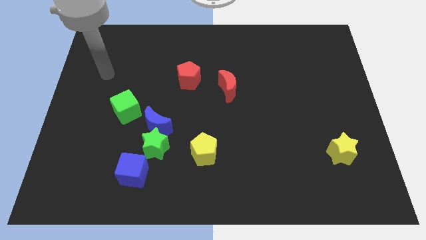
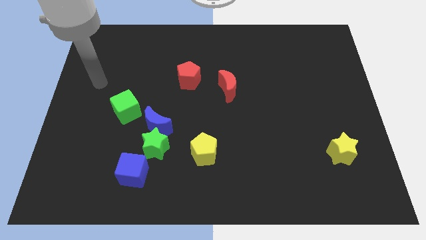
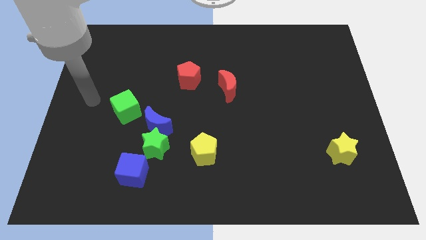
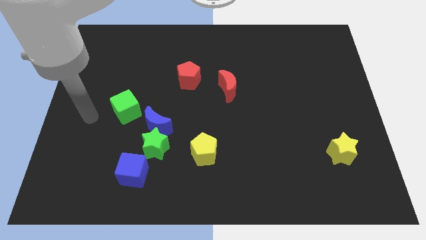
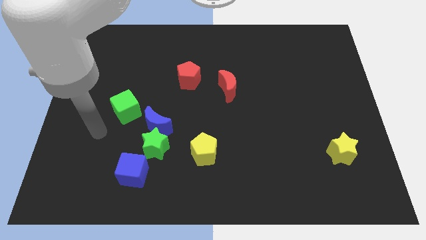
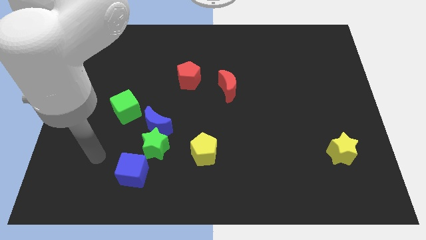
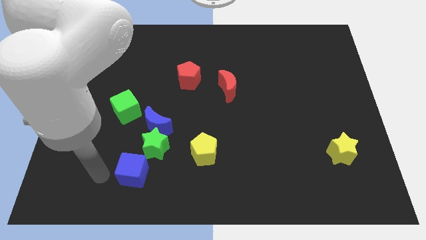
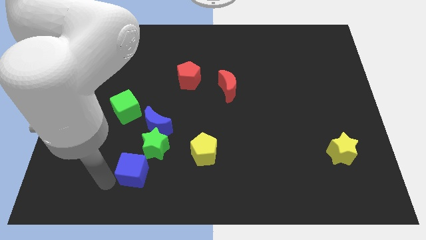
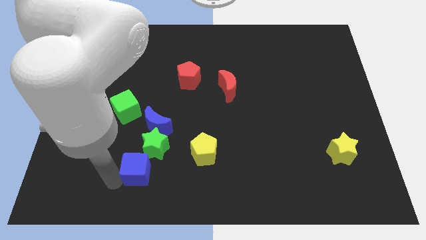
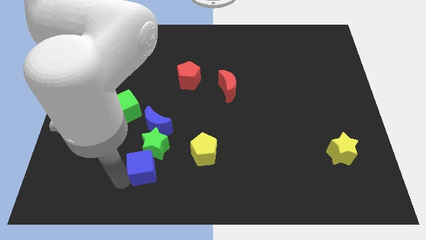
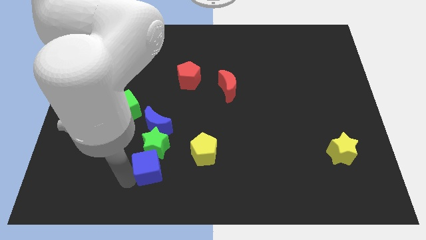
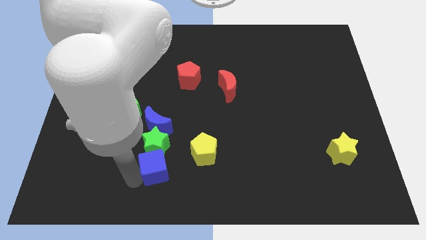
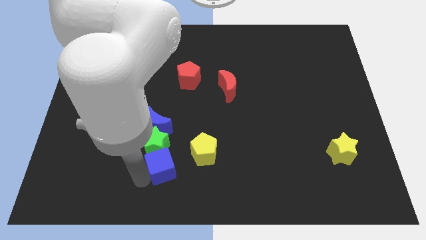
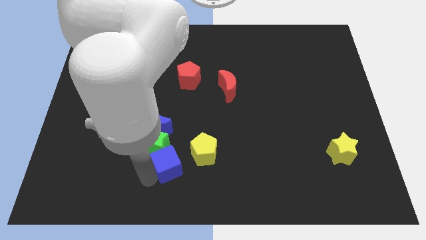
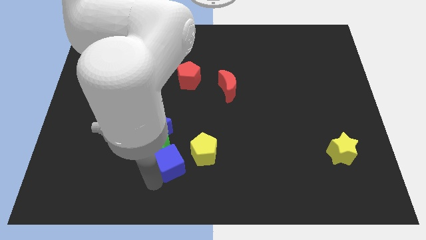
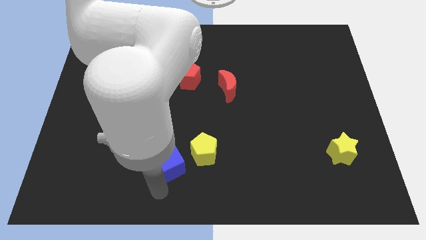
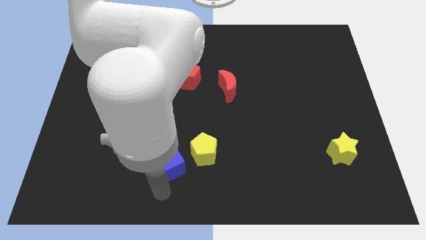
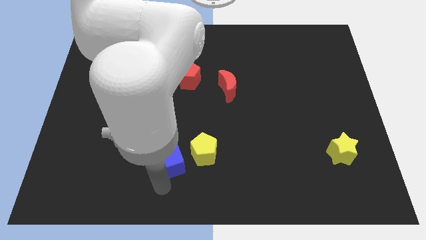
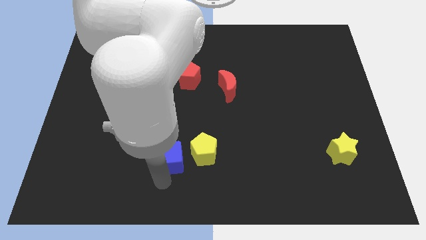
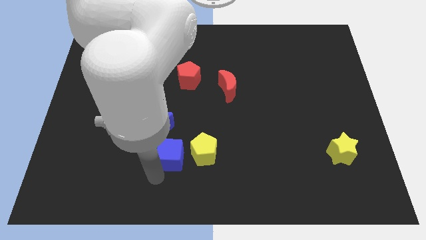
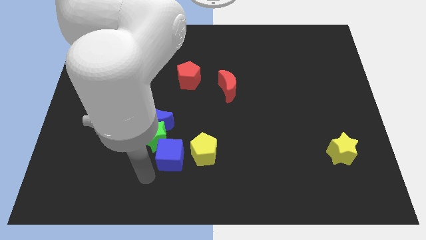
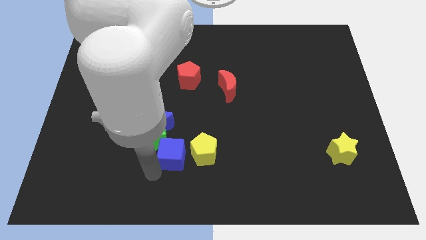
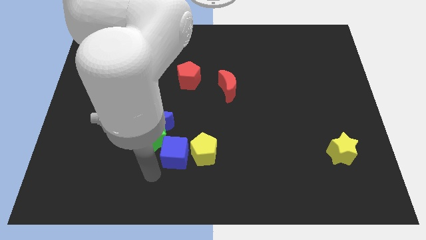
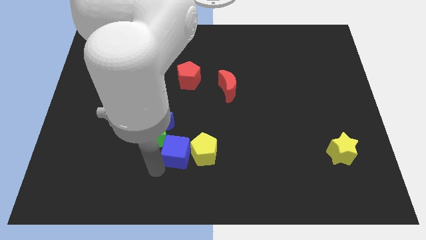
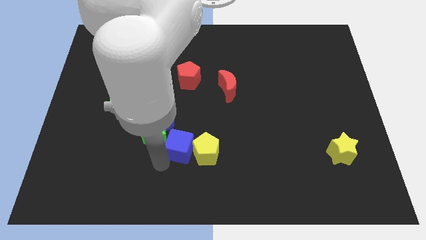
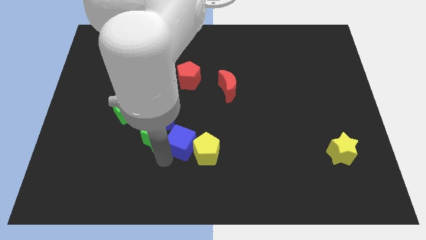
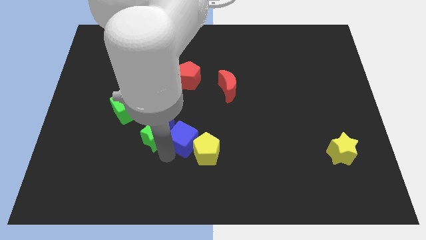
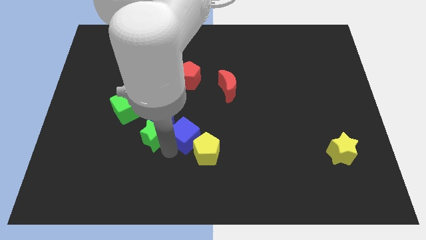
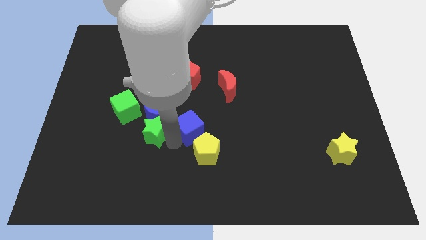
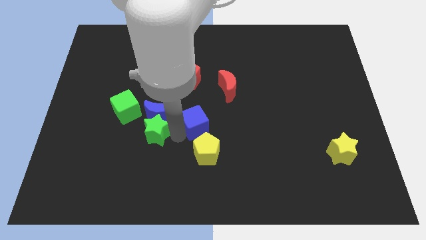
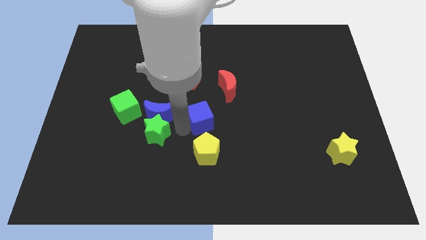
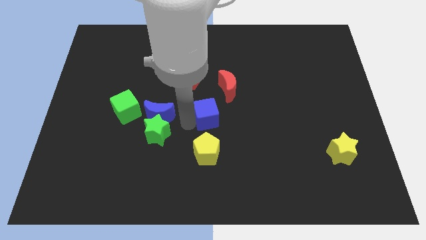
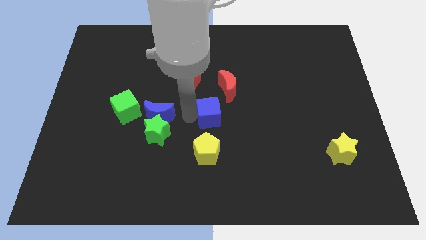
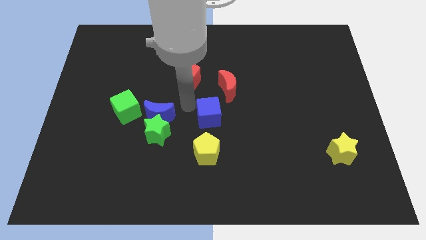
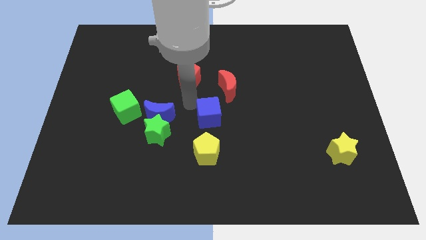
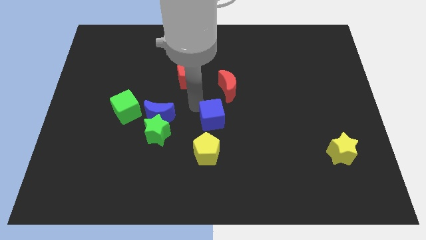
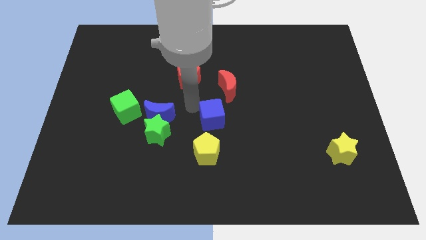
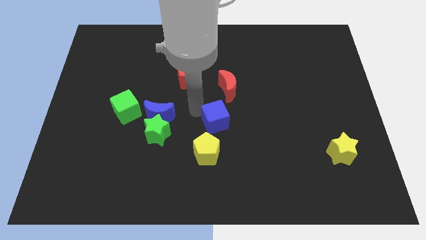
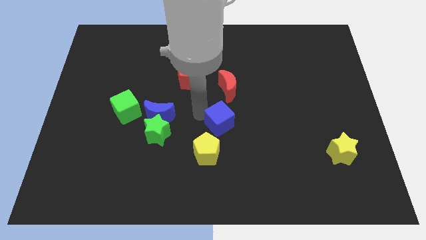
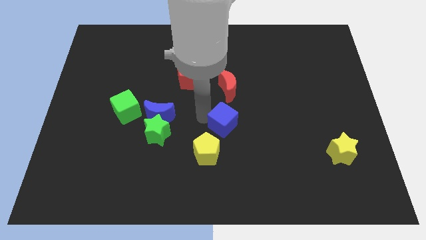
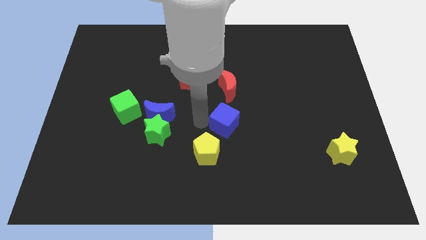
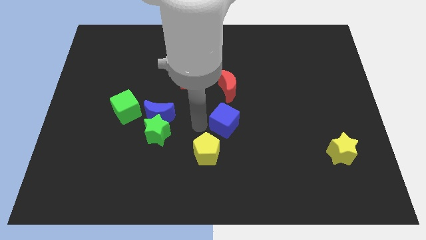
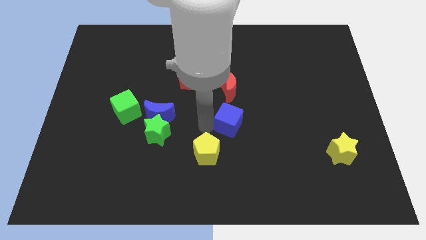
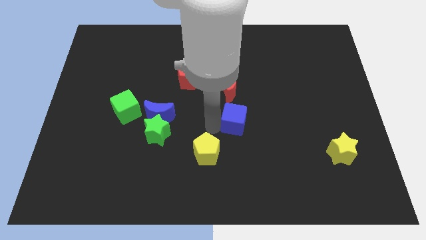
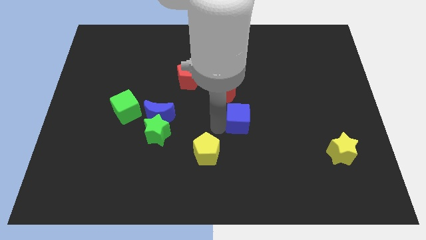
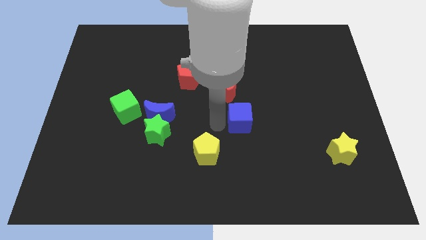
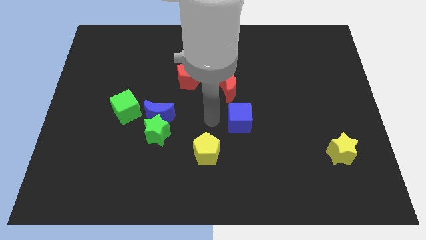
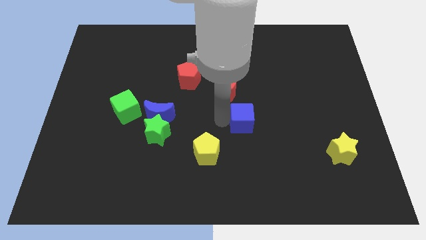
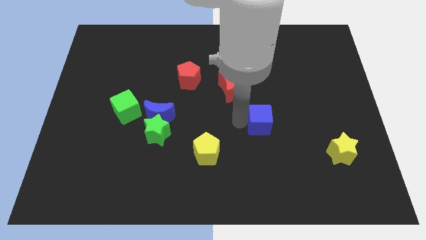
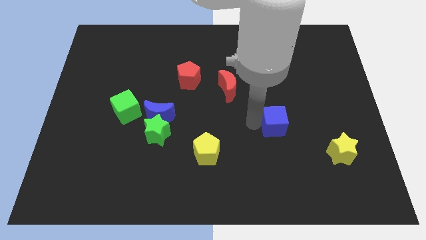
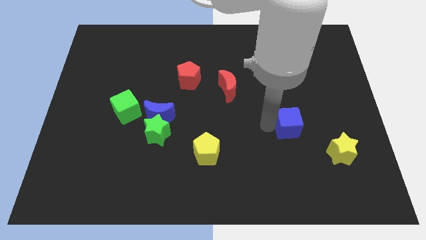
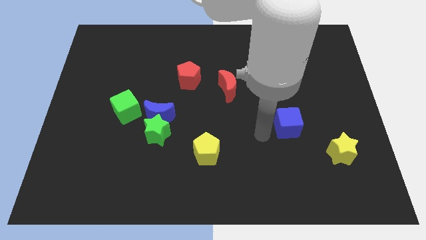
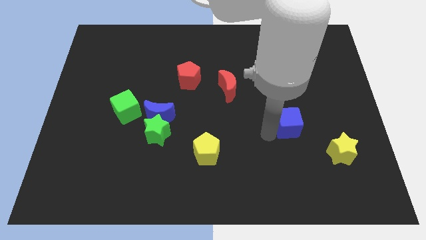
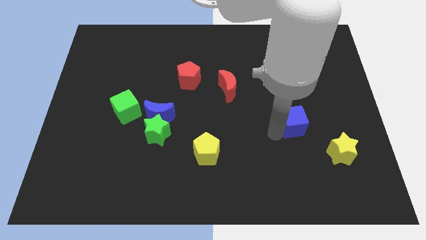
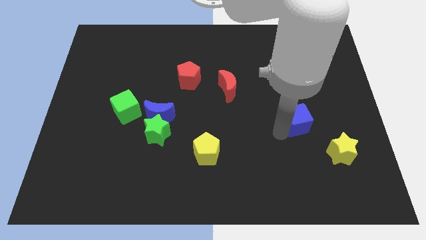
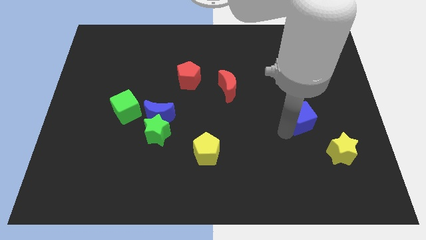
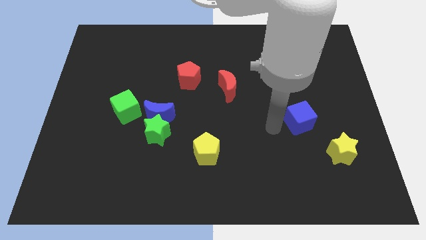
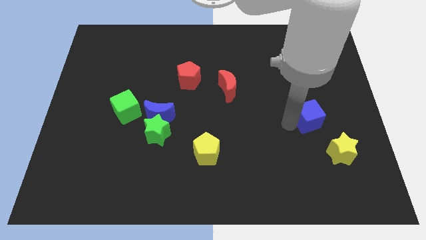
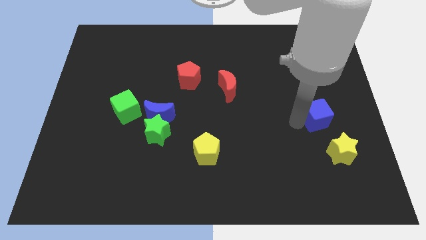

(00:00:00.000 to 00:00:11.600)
slide the blue cube above the yellow star
